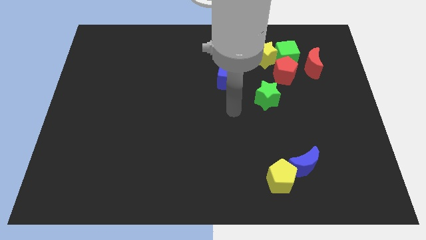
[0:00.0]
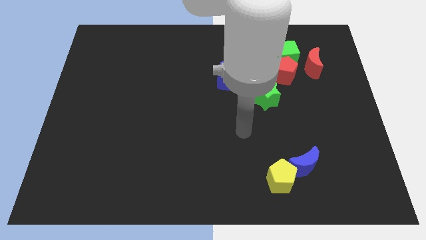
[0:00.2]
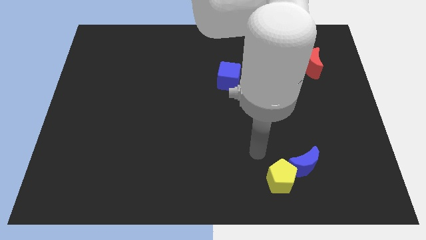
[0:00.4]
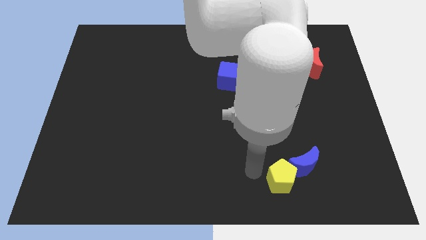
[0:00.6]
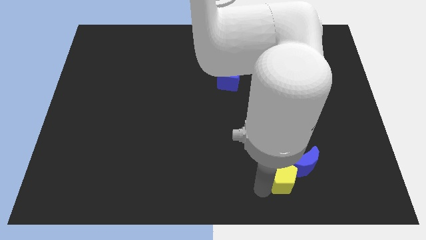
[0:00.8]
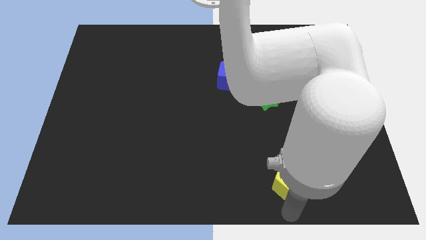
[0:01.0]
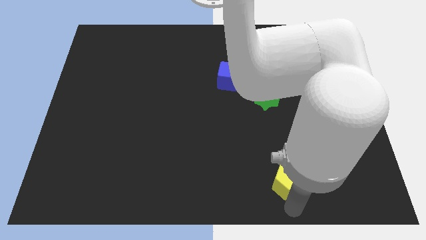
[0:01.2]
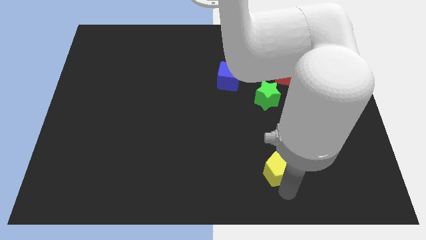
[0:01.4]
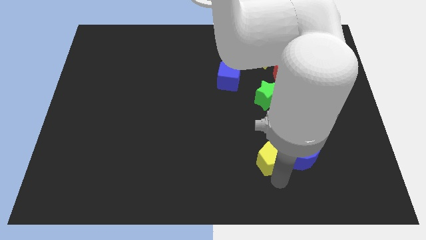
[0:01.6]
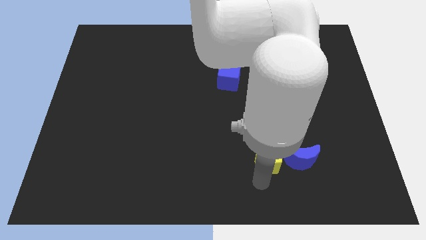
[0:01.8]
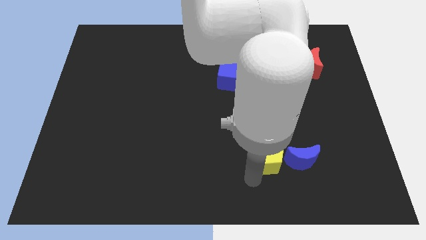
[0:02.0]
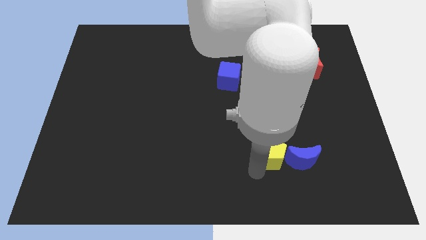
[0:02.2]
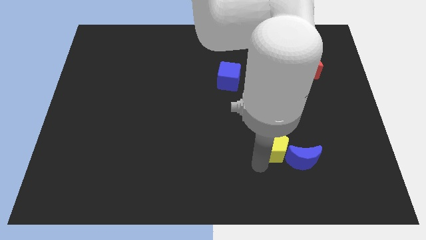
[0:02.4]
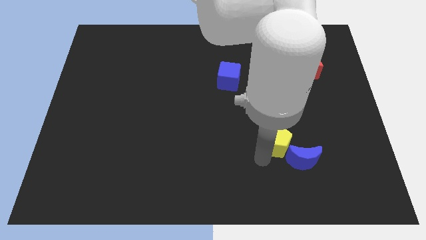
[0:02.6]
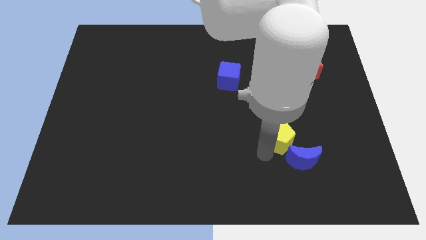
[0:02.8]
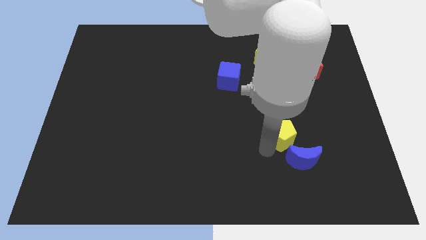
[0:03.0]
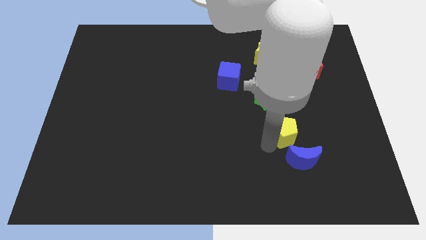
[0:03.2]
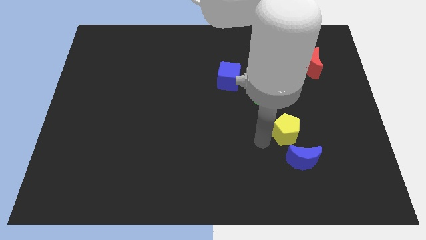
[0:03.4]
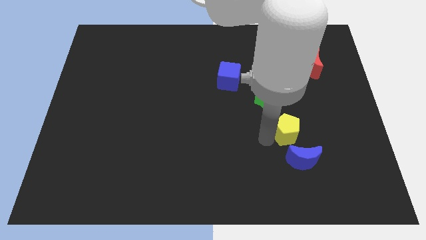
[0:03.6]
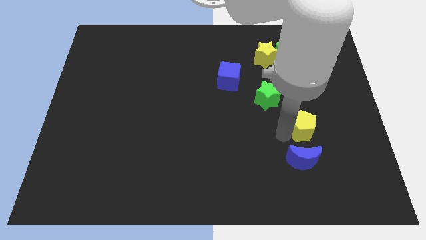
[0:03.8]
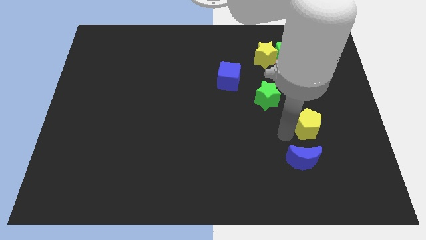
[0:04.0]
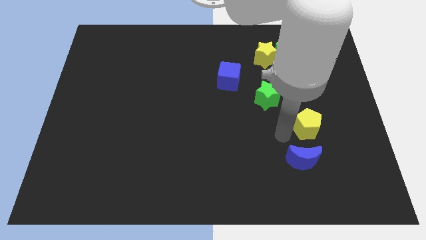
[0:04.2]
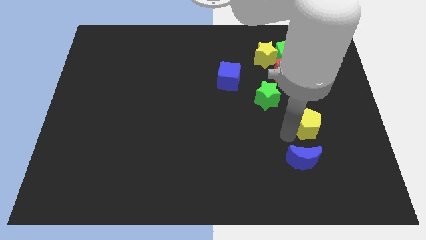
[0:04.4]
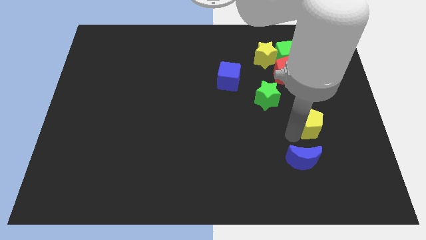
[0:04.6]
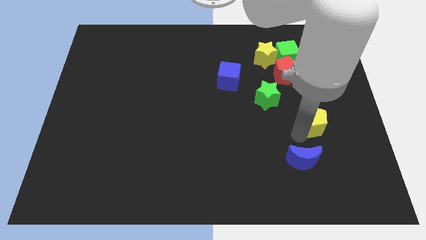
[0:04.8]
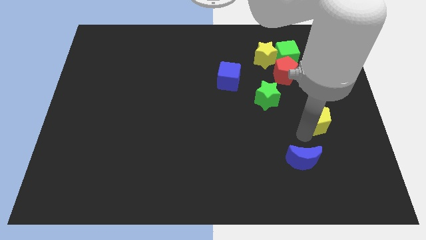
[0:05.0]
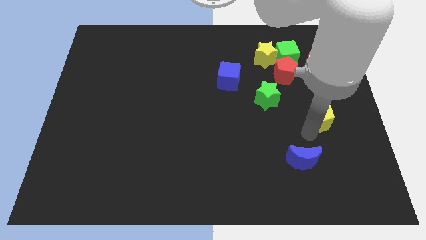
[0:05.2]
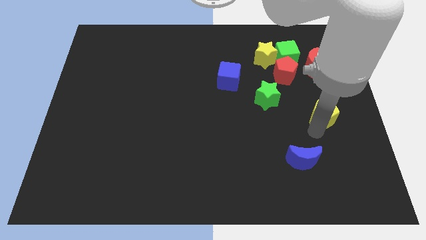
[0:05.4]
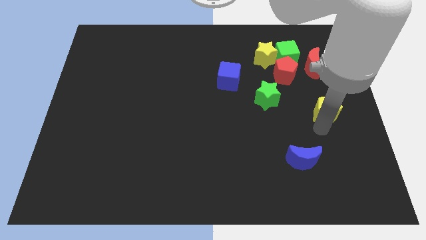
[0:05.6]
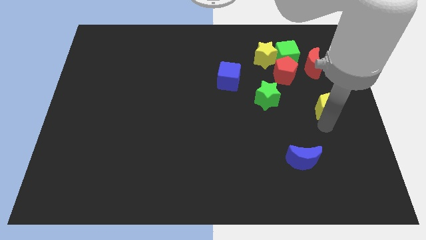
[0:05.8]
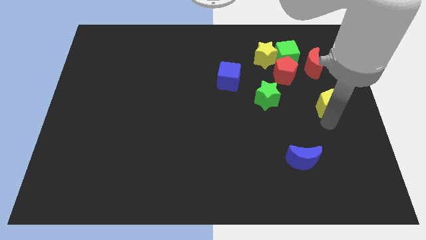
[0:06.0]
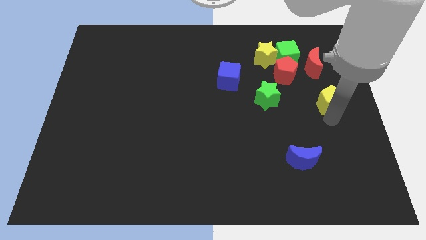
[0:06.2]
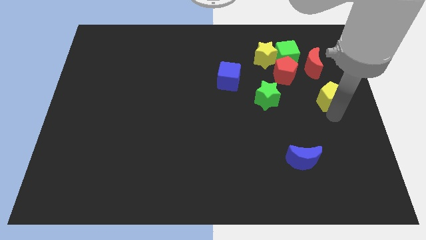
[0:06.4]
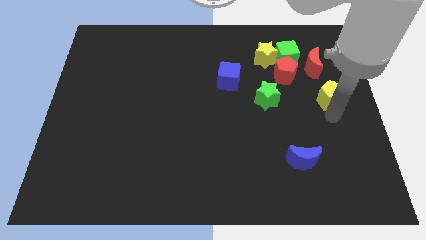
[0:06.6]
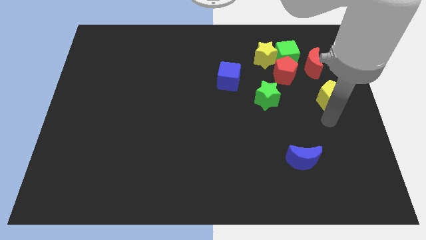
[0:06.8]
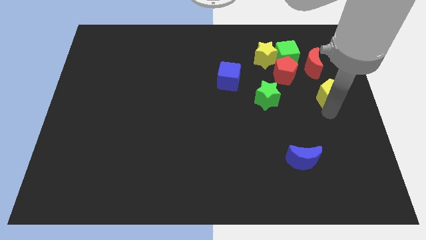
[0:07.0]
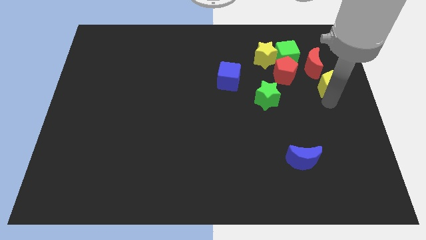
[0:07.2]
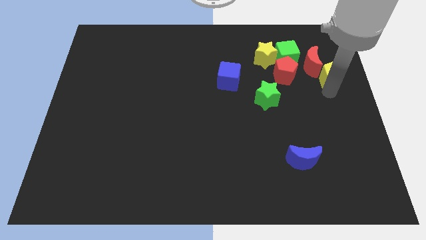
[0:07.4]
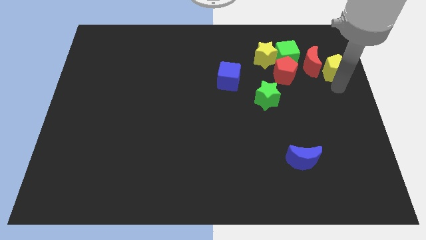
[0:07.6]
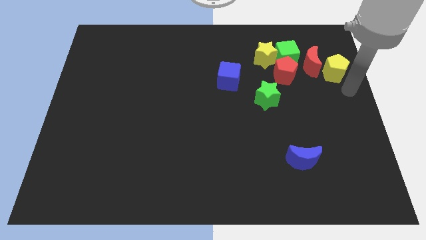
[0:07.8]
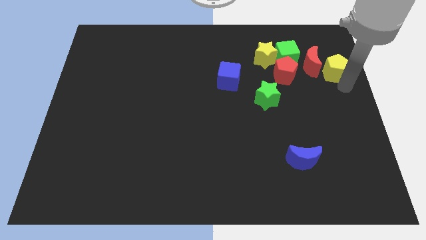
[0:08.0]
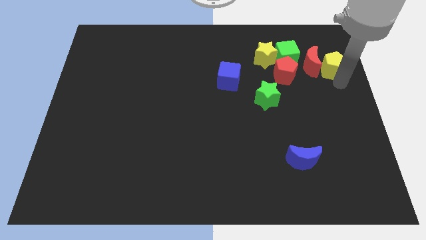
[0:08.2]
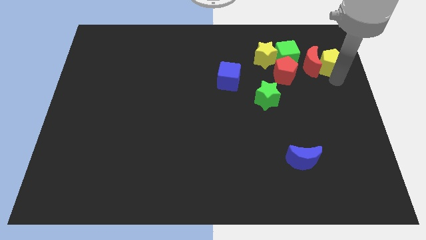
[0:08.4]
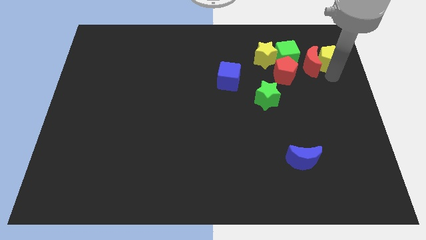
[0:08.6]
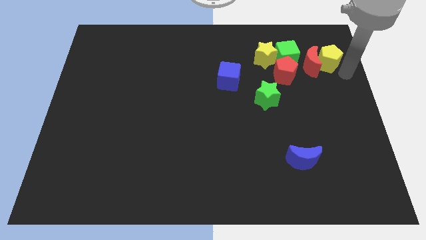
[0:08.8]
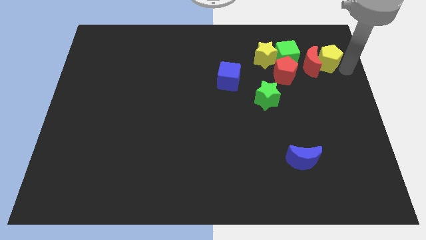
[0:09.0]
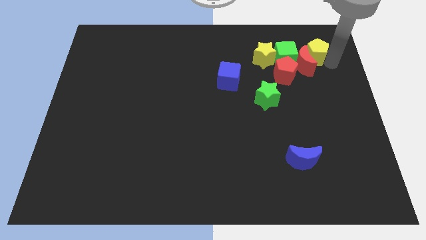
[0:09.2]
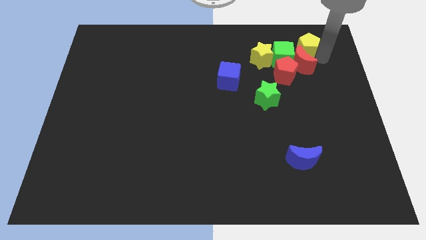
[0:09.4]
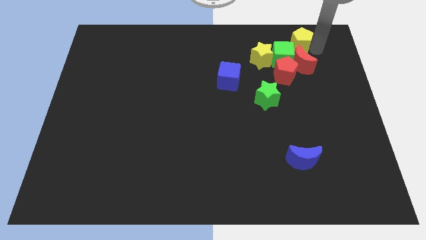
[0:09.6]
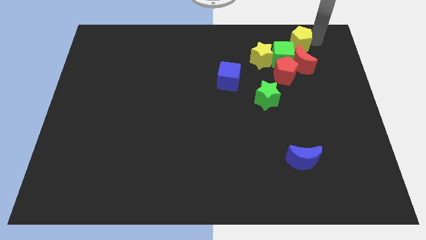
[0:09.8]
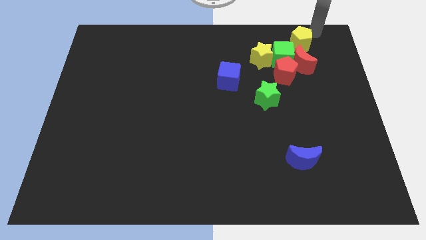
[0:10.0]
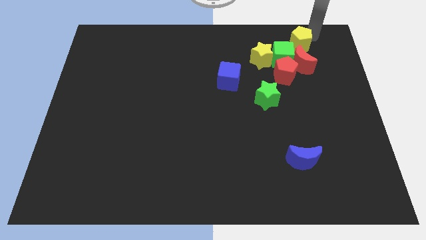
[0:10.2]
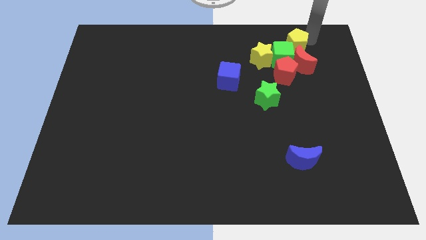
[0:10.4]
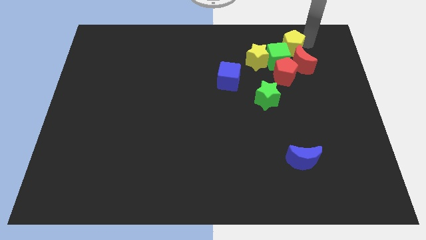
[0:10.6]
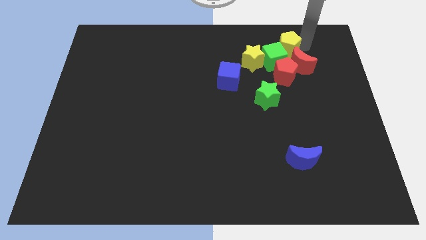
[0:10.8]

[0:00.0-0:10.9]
push the yellow pentagon close to the green cube

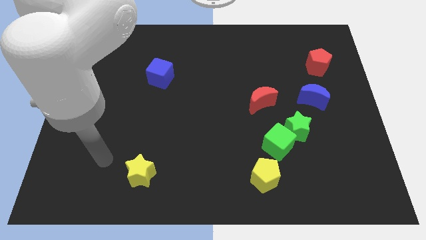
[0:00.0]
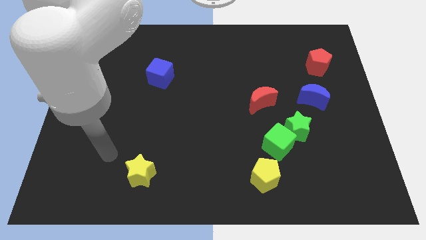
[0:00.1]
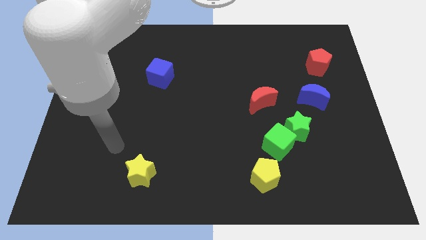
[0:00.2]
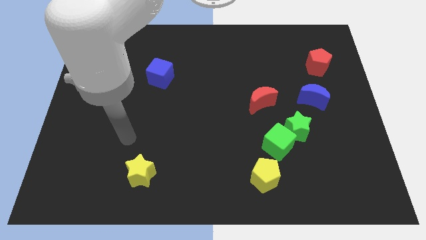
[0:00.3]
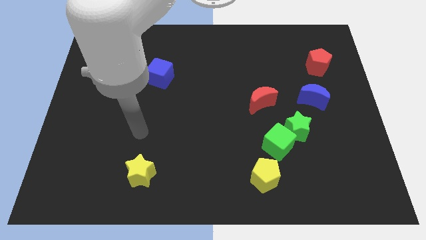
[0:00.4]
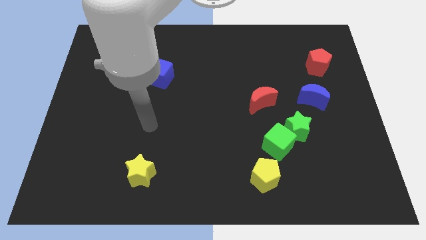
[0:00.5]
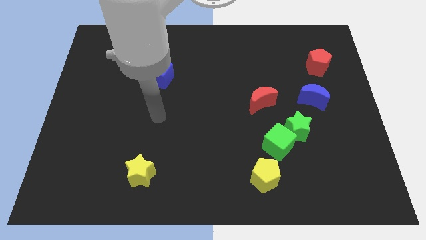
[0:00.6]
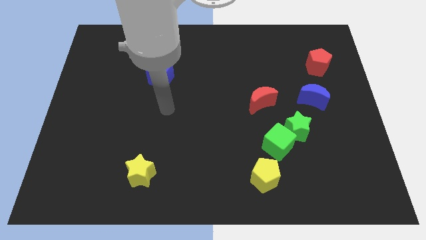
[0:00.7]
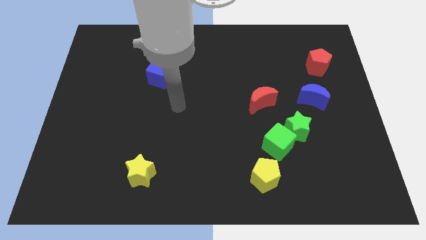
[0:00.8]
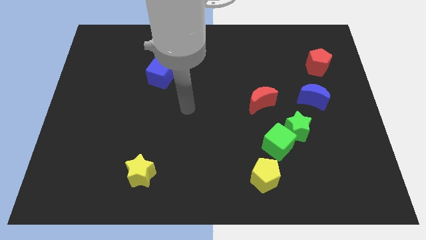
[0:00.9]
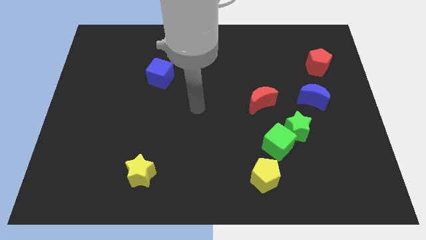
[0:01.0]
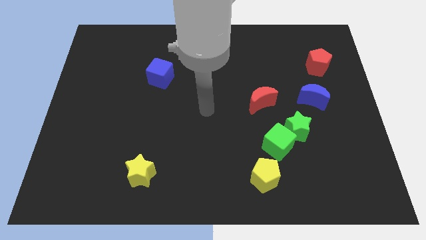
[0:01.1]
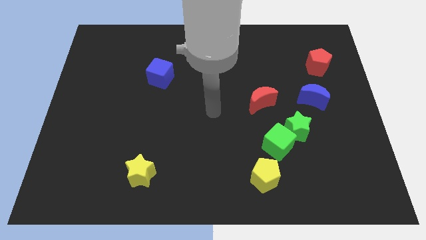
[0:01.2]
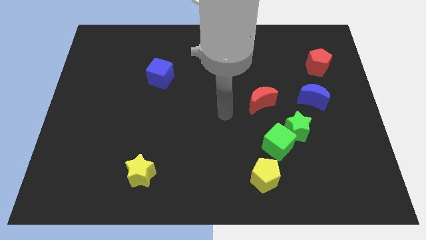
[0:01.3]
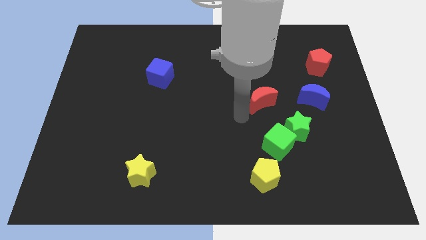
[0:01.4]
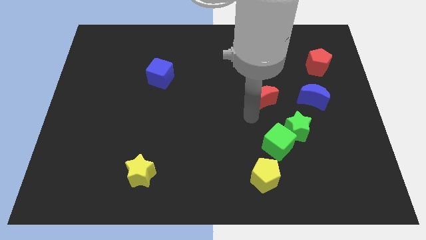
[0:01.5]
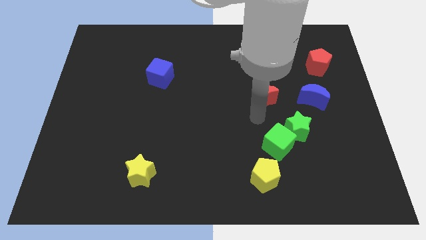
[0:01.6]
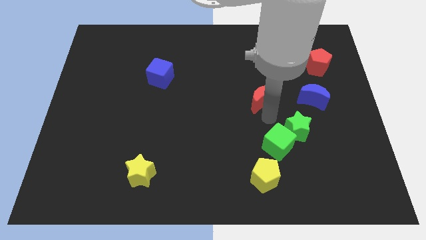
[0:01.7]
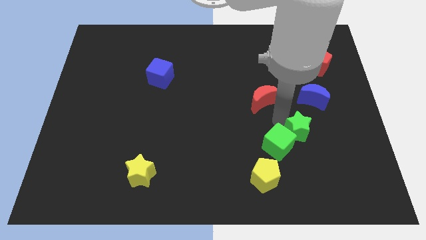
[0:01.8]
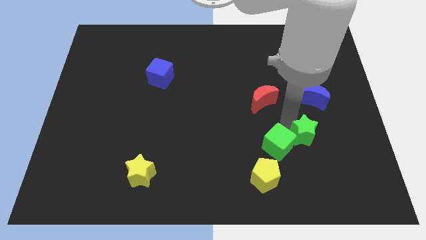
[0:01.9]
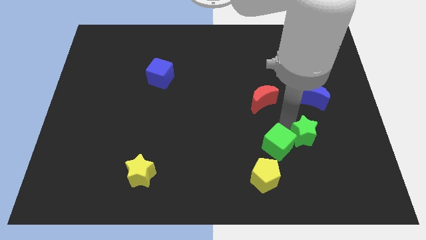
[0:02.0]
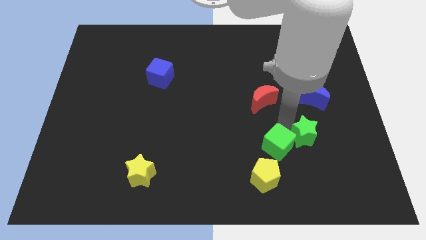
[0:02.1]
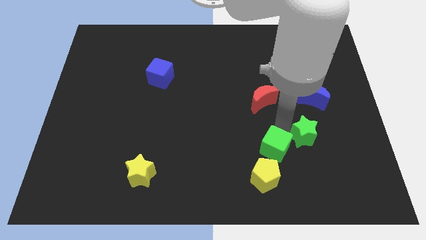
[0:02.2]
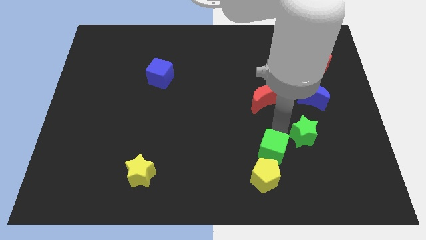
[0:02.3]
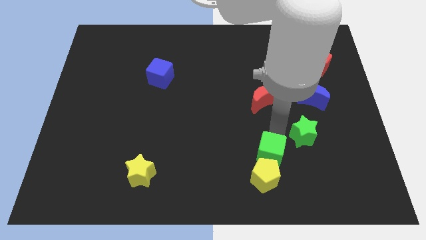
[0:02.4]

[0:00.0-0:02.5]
put the green cube next to the yellow pentagon

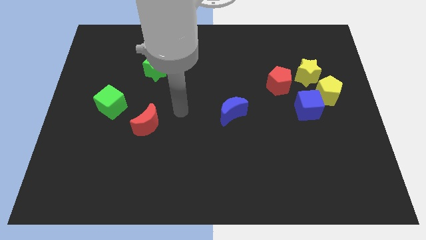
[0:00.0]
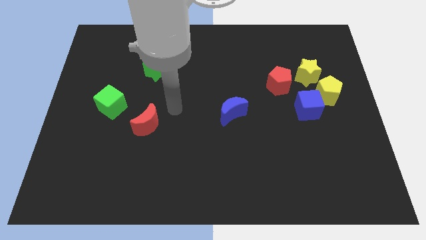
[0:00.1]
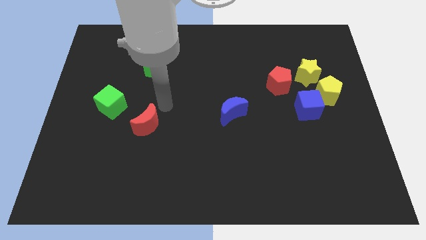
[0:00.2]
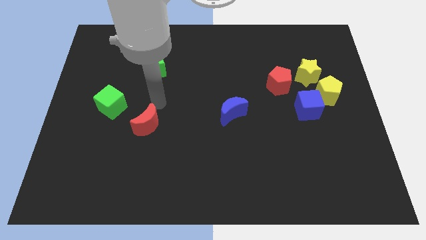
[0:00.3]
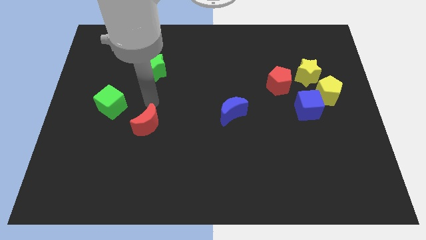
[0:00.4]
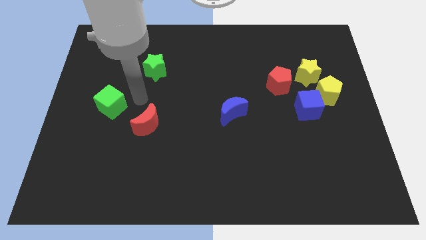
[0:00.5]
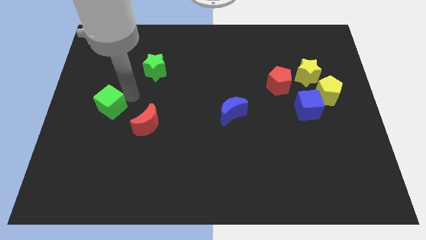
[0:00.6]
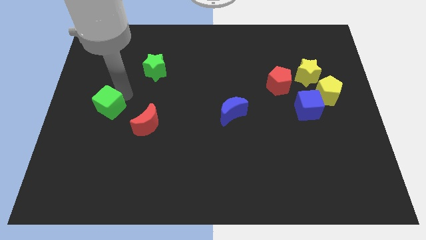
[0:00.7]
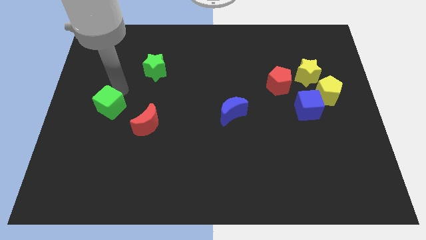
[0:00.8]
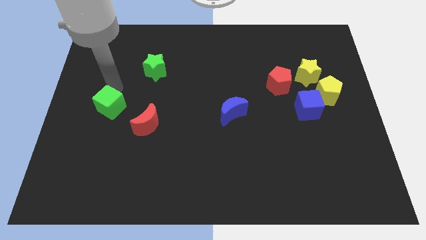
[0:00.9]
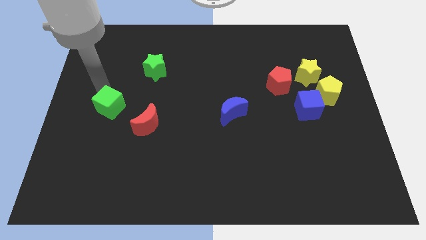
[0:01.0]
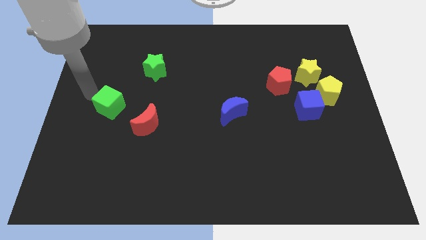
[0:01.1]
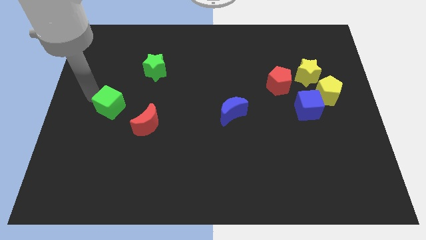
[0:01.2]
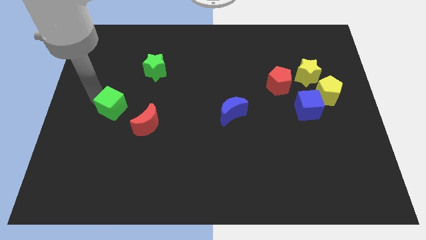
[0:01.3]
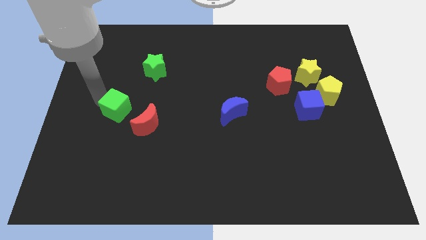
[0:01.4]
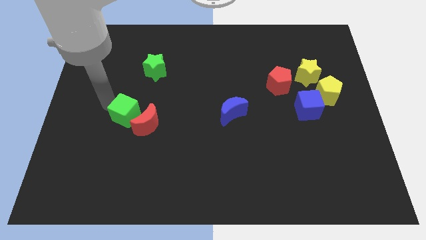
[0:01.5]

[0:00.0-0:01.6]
slide the green cube close to the red moon
